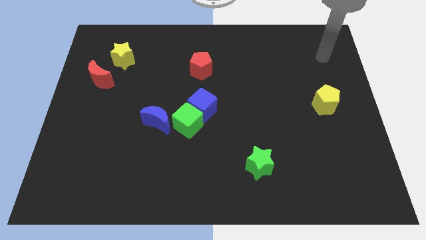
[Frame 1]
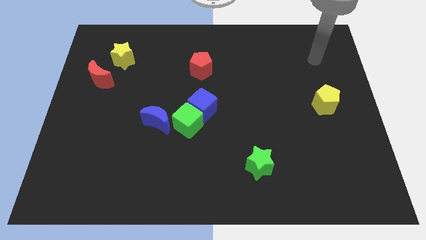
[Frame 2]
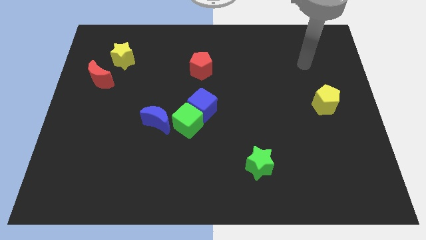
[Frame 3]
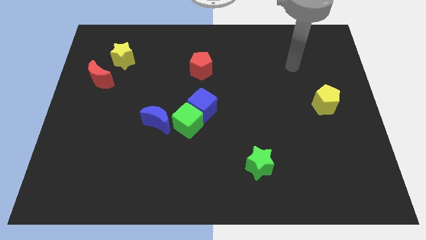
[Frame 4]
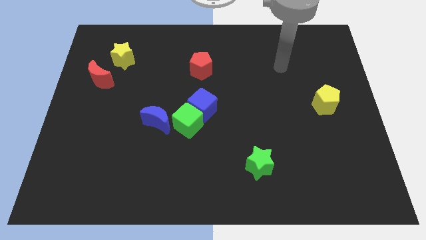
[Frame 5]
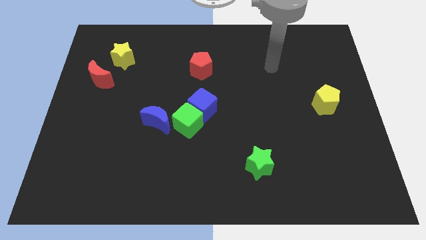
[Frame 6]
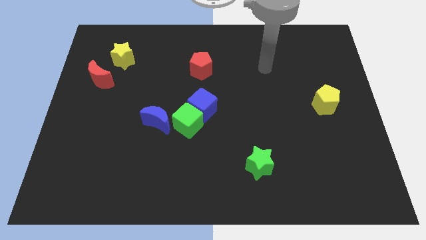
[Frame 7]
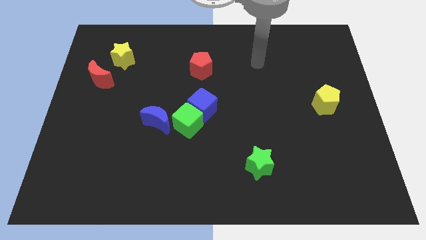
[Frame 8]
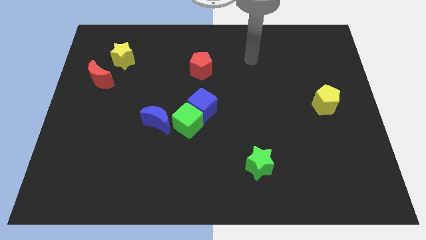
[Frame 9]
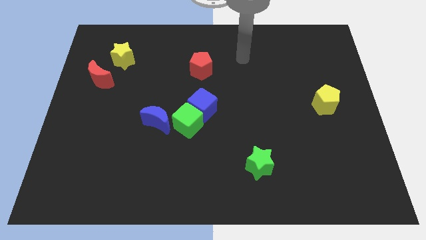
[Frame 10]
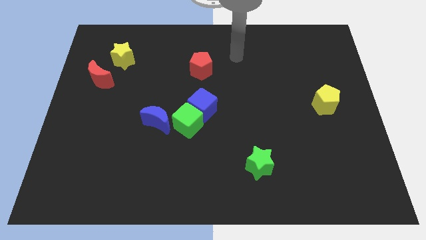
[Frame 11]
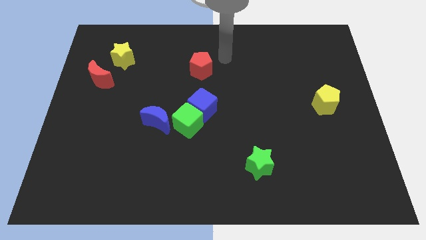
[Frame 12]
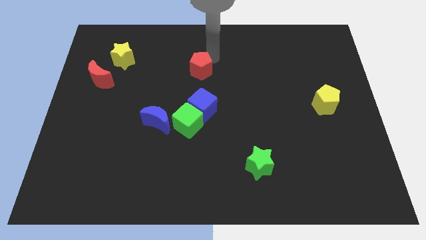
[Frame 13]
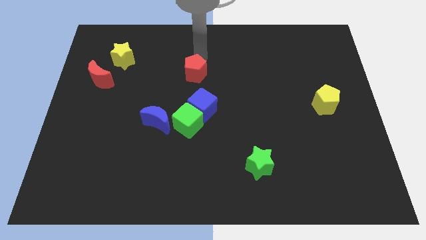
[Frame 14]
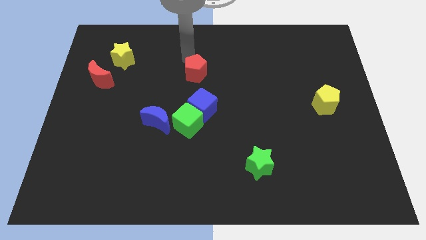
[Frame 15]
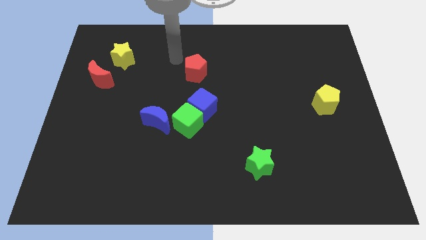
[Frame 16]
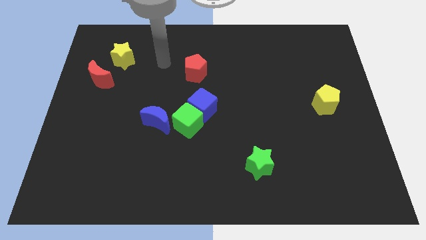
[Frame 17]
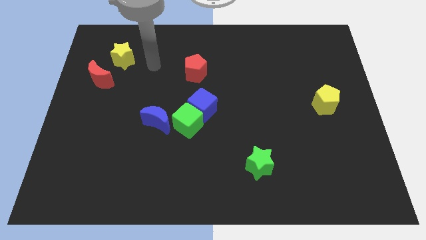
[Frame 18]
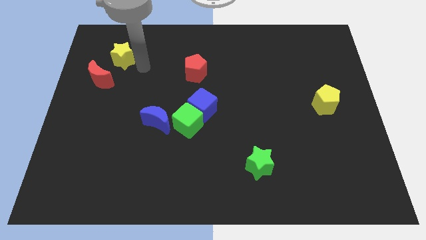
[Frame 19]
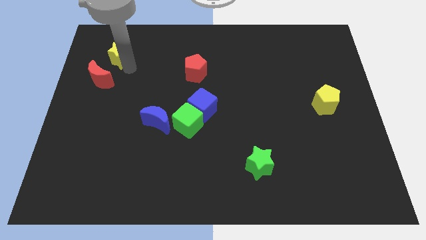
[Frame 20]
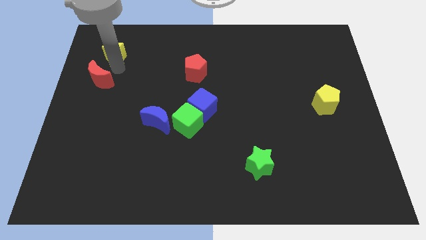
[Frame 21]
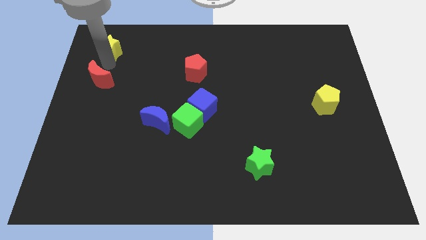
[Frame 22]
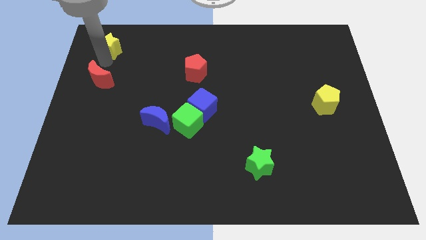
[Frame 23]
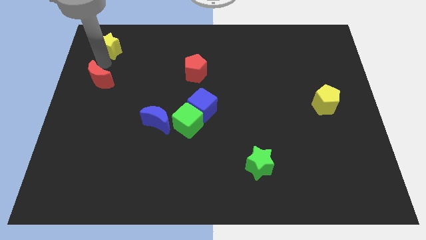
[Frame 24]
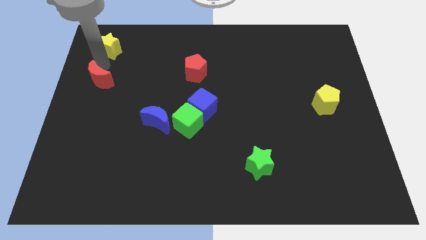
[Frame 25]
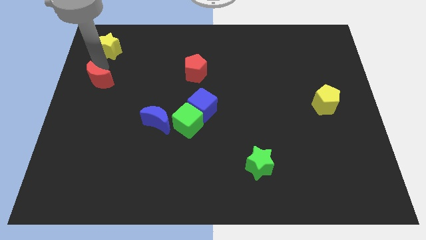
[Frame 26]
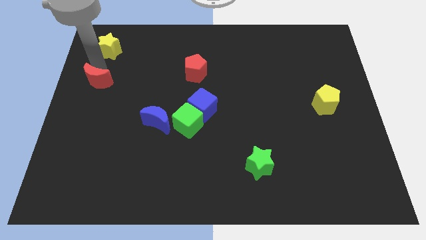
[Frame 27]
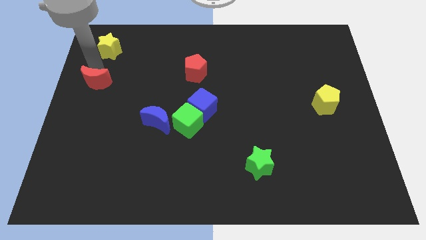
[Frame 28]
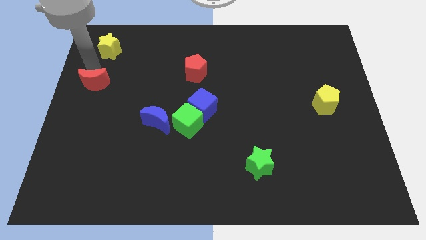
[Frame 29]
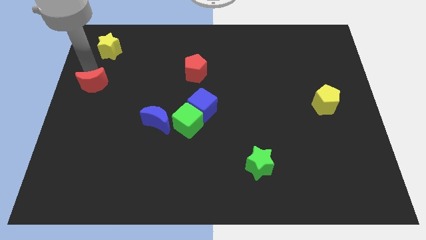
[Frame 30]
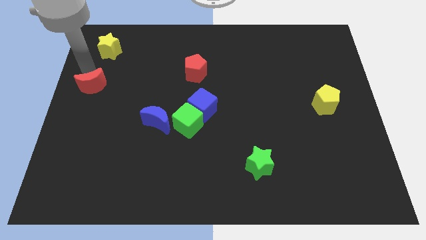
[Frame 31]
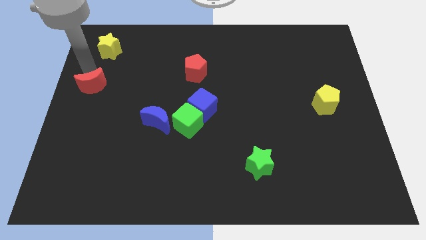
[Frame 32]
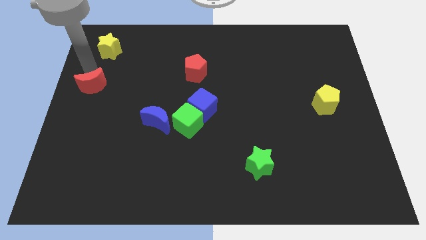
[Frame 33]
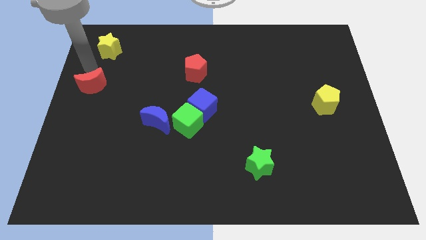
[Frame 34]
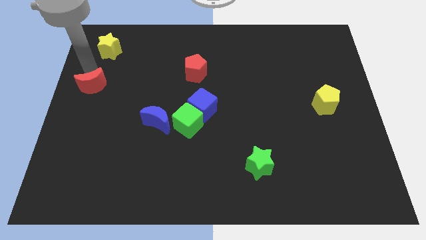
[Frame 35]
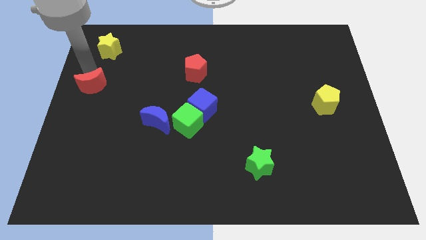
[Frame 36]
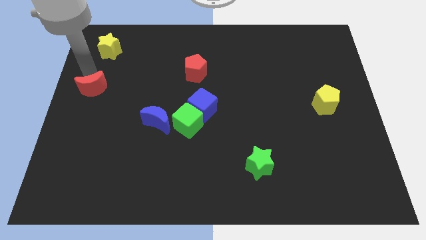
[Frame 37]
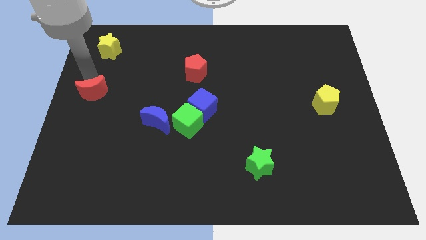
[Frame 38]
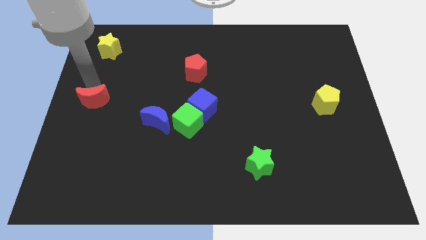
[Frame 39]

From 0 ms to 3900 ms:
slightly slide the red moon down

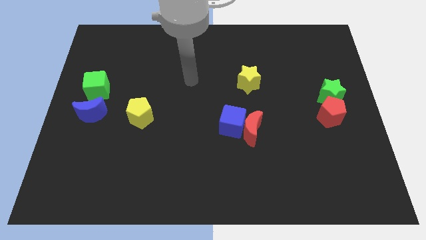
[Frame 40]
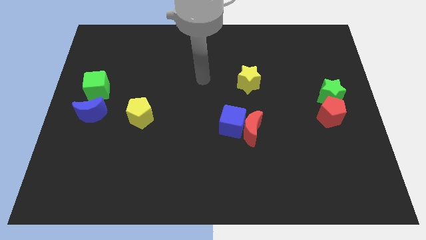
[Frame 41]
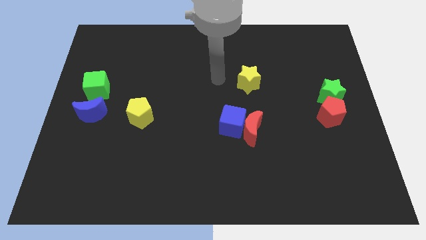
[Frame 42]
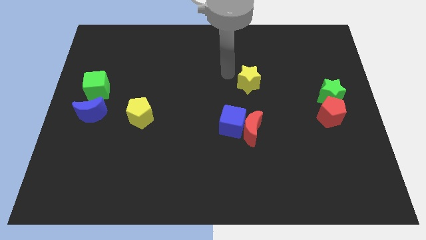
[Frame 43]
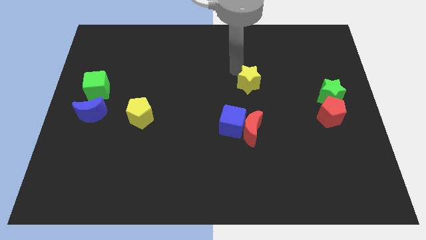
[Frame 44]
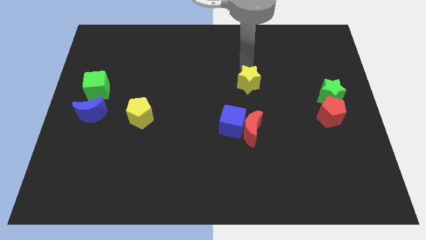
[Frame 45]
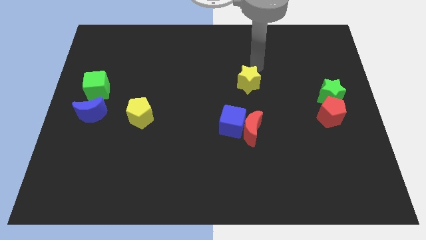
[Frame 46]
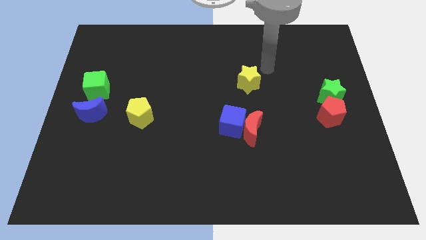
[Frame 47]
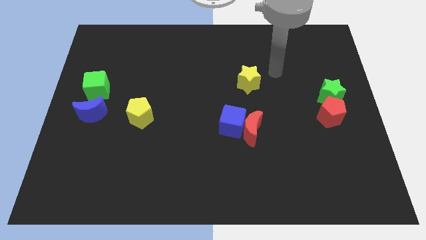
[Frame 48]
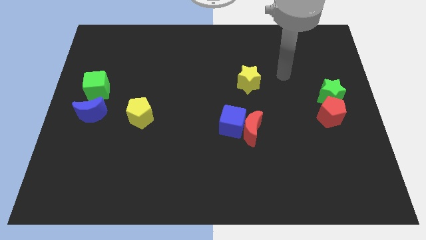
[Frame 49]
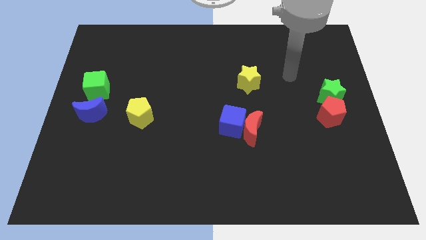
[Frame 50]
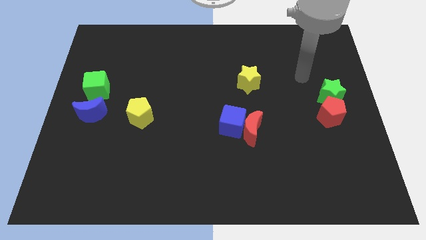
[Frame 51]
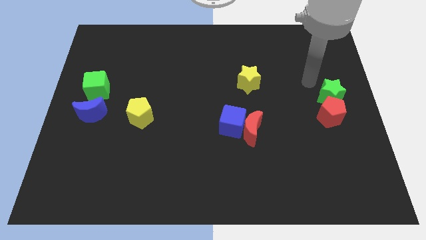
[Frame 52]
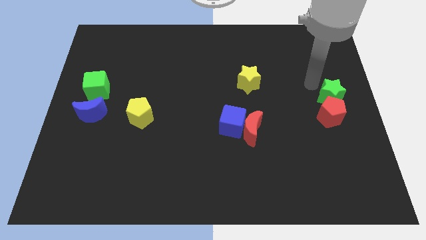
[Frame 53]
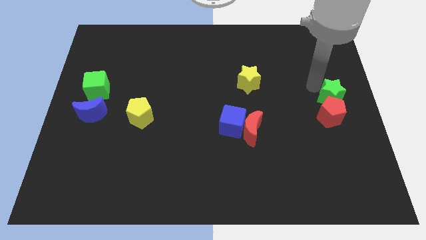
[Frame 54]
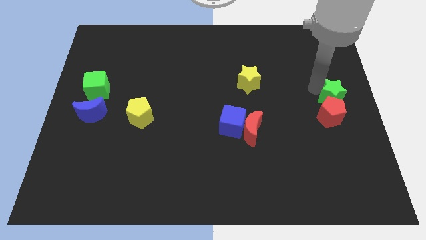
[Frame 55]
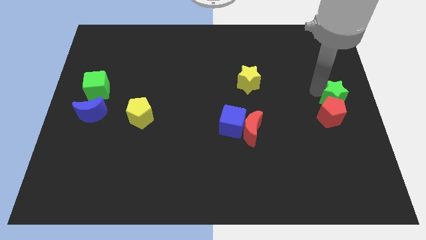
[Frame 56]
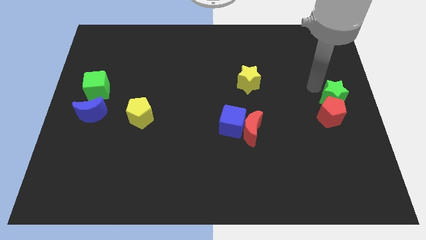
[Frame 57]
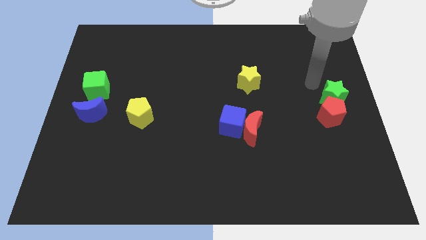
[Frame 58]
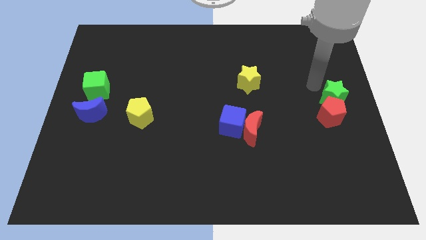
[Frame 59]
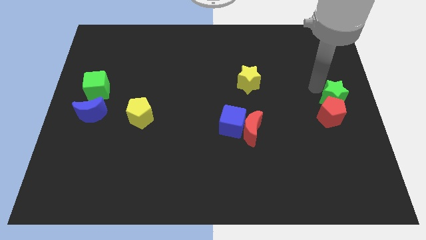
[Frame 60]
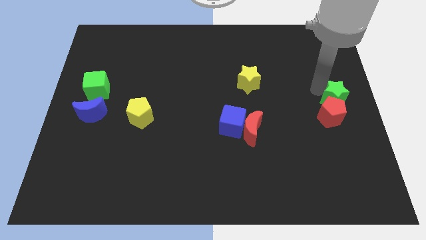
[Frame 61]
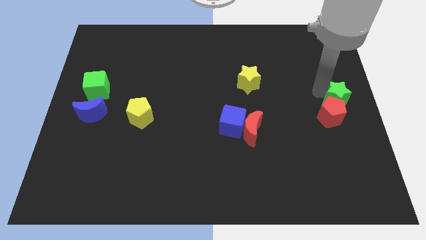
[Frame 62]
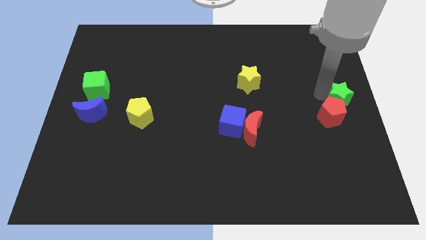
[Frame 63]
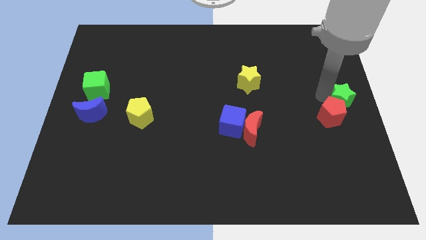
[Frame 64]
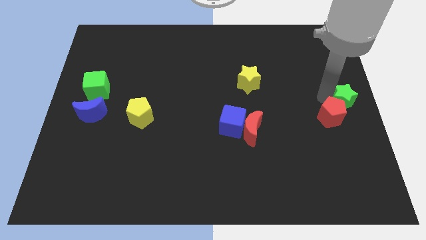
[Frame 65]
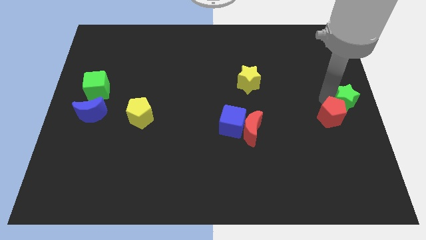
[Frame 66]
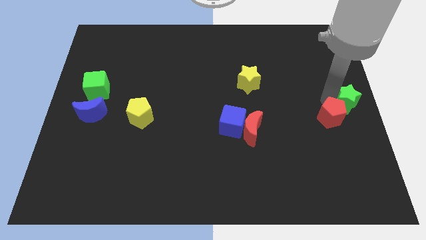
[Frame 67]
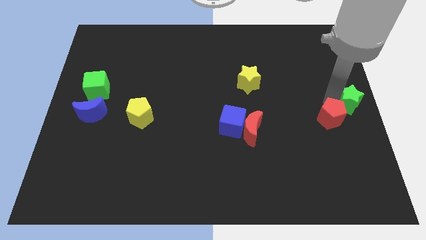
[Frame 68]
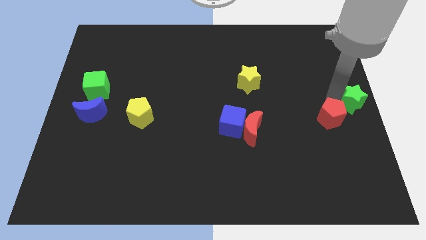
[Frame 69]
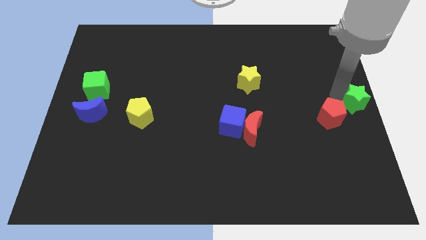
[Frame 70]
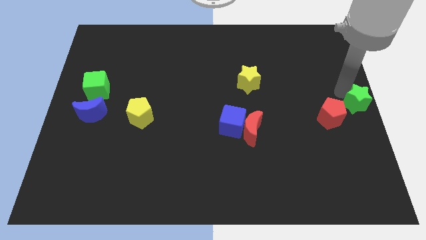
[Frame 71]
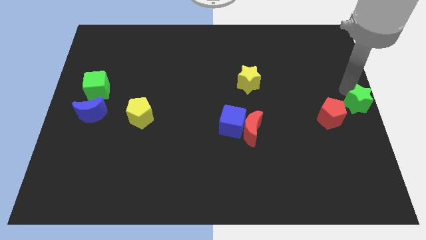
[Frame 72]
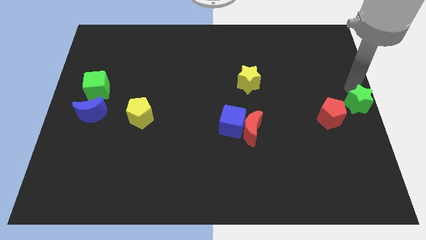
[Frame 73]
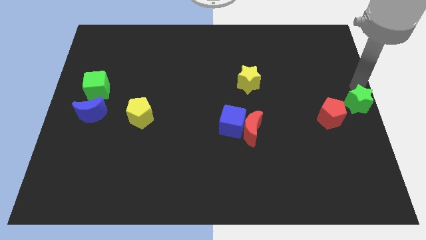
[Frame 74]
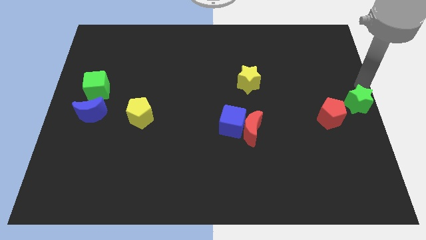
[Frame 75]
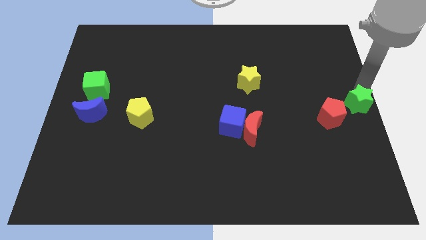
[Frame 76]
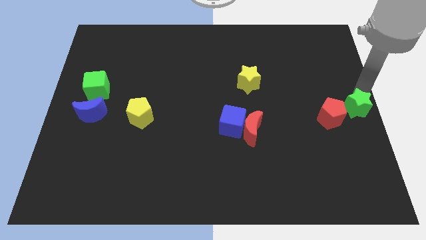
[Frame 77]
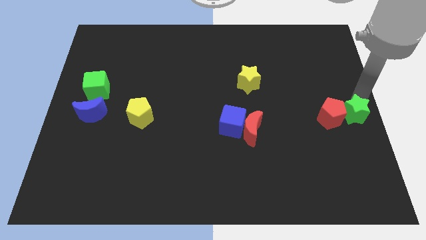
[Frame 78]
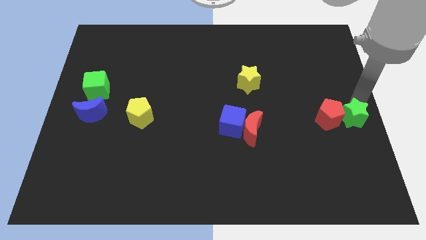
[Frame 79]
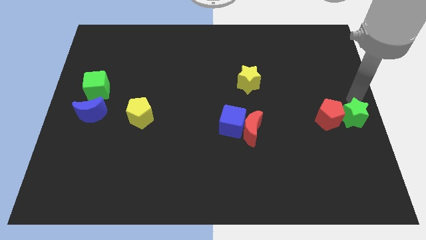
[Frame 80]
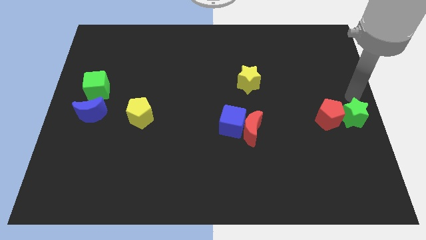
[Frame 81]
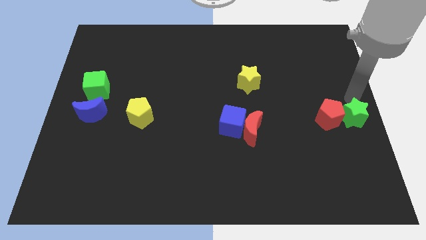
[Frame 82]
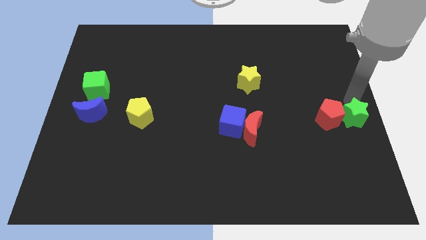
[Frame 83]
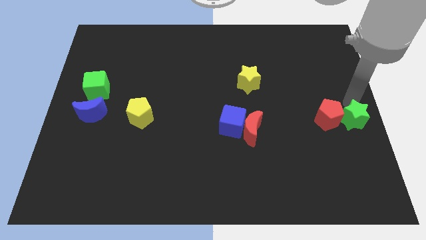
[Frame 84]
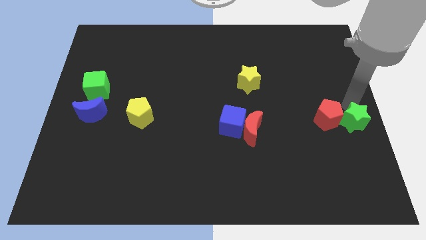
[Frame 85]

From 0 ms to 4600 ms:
slightly push the green star downwards
